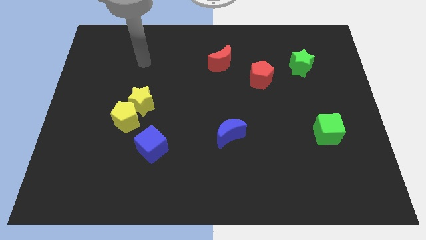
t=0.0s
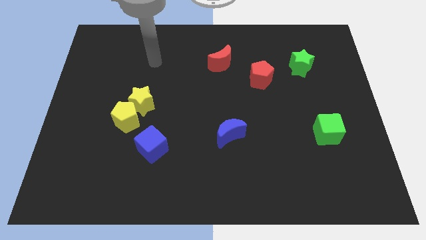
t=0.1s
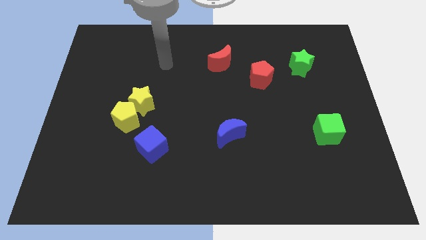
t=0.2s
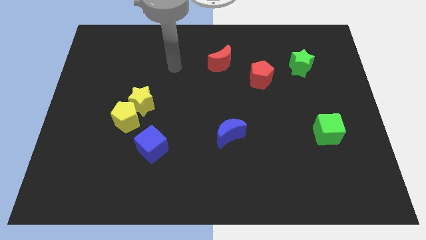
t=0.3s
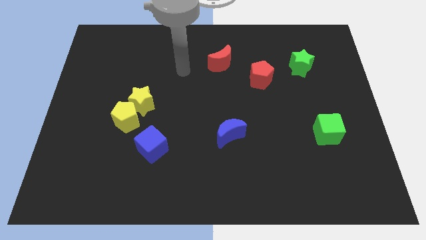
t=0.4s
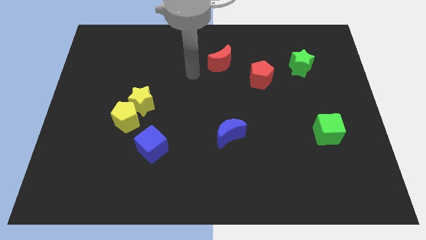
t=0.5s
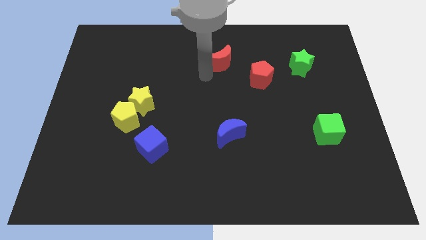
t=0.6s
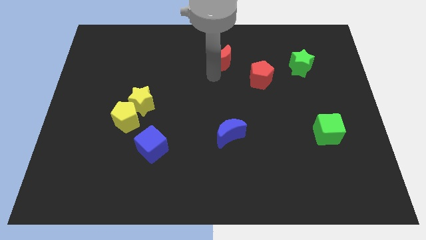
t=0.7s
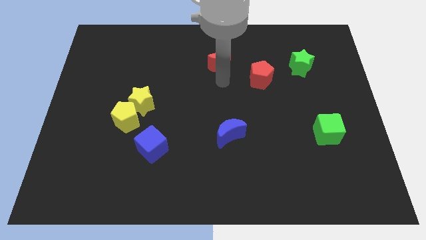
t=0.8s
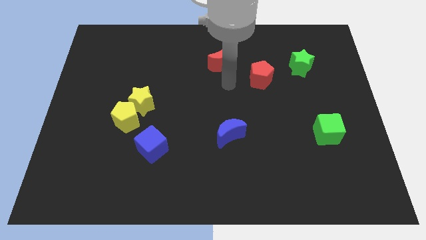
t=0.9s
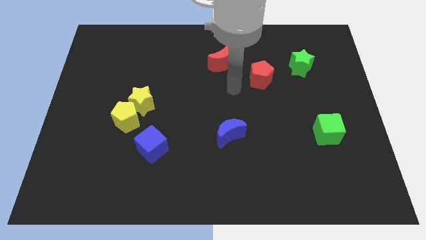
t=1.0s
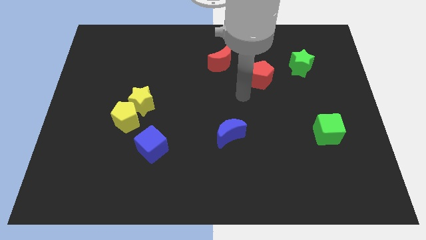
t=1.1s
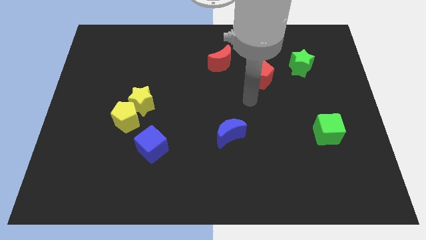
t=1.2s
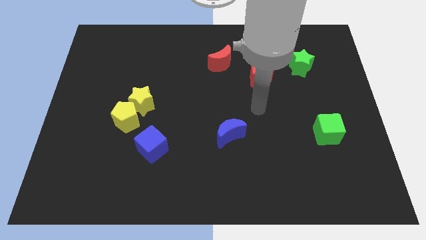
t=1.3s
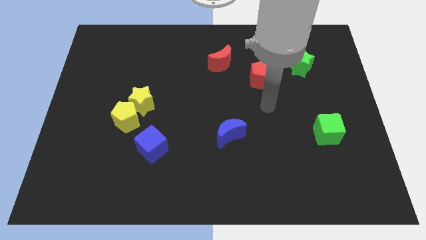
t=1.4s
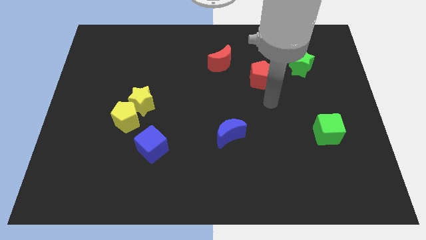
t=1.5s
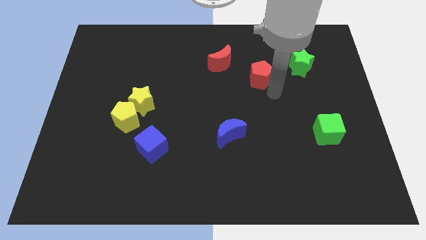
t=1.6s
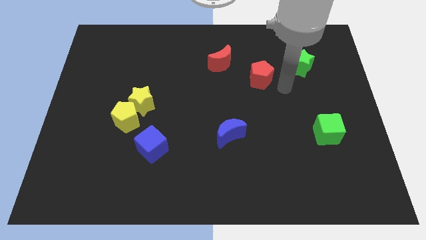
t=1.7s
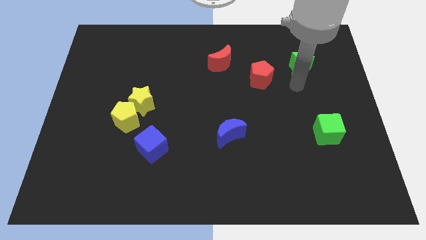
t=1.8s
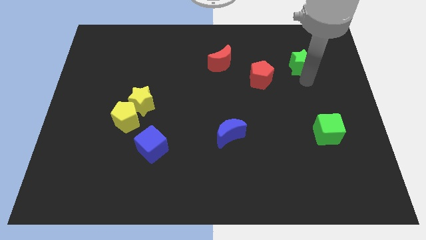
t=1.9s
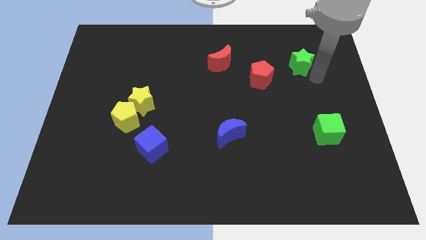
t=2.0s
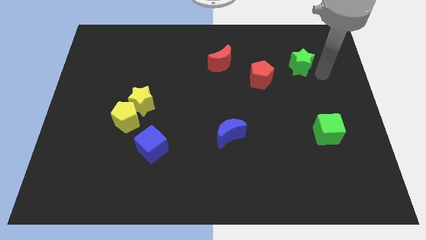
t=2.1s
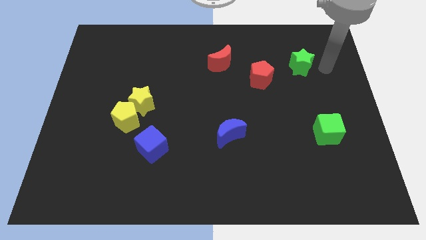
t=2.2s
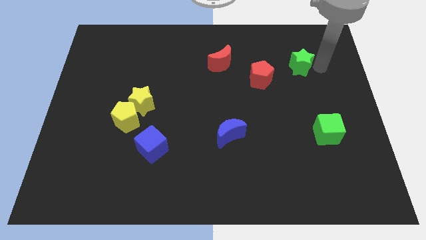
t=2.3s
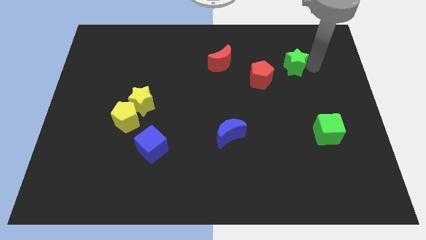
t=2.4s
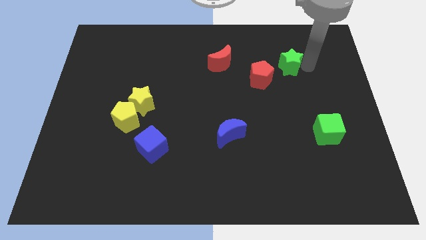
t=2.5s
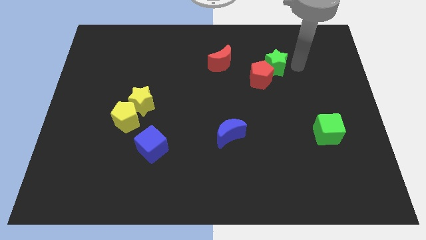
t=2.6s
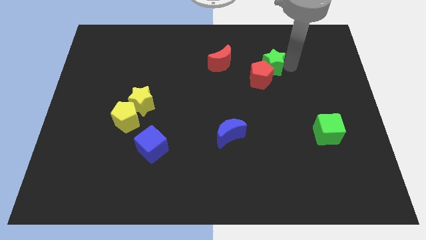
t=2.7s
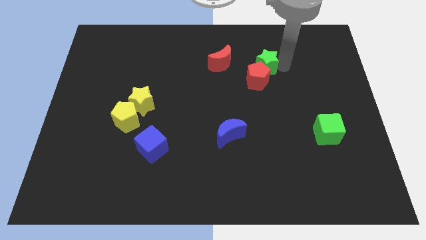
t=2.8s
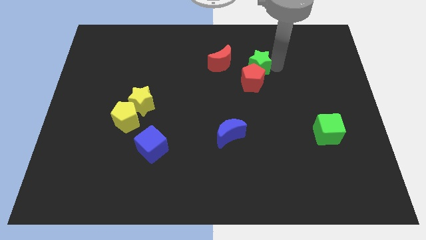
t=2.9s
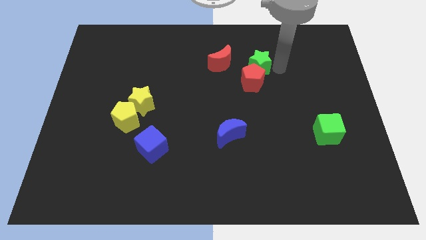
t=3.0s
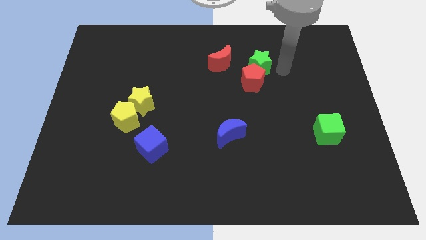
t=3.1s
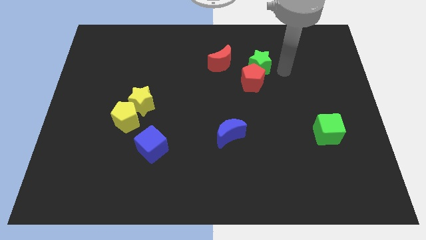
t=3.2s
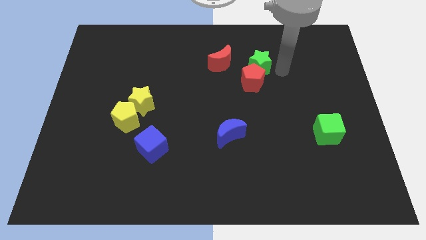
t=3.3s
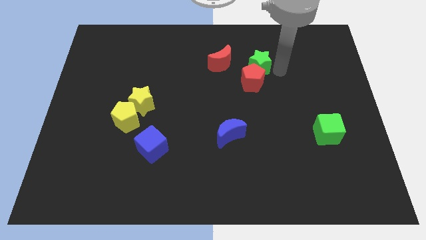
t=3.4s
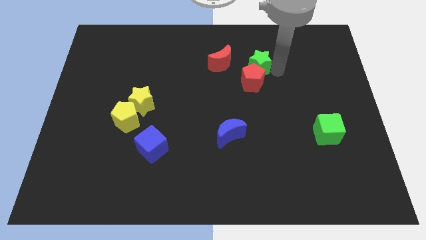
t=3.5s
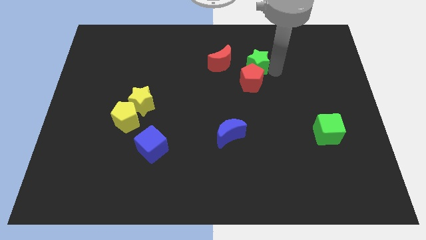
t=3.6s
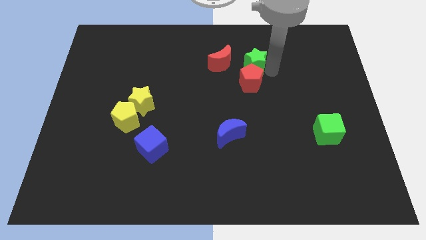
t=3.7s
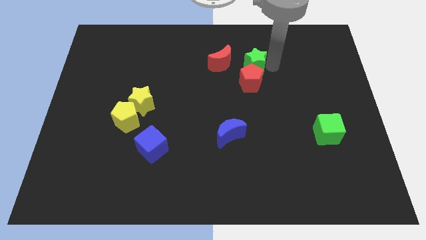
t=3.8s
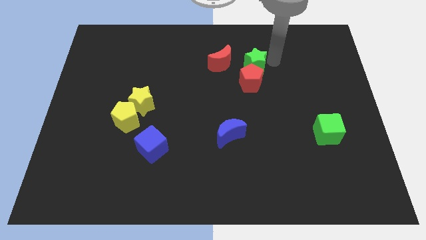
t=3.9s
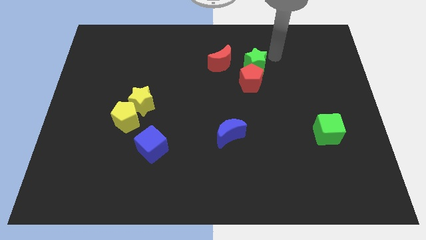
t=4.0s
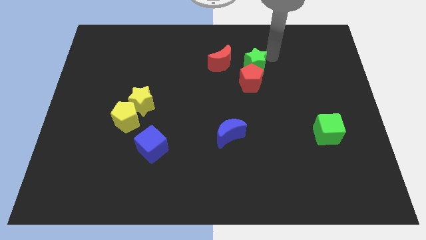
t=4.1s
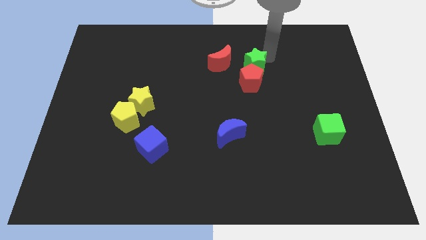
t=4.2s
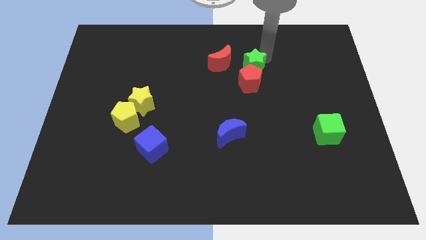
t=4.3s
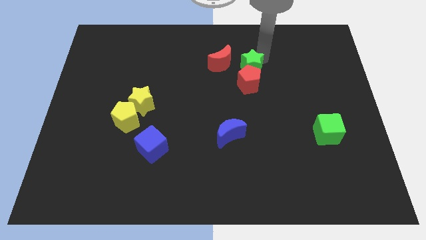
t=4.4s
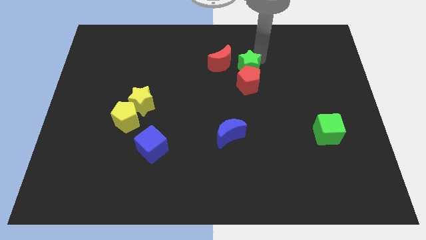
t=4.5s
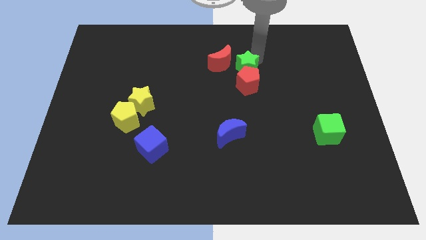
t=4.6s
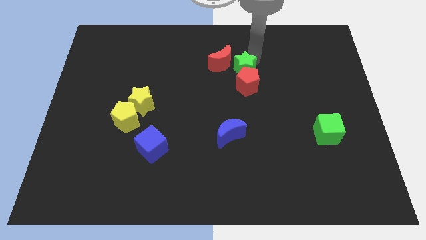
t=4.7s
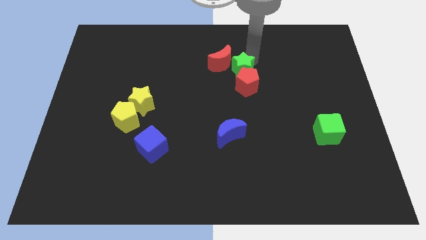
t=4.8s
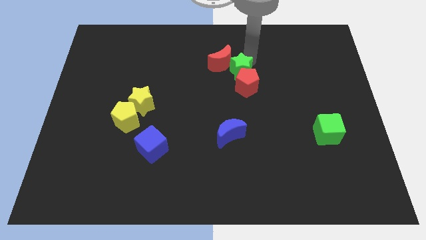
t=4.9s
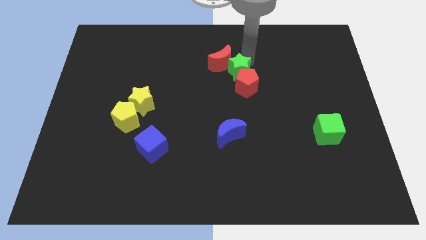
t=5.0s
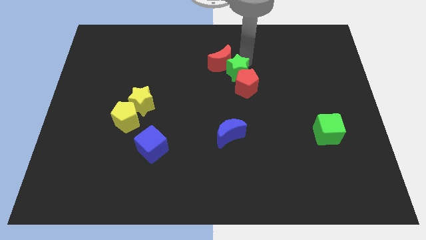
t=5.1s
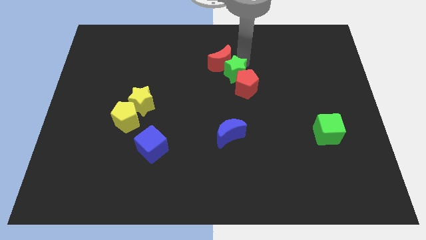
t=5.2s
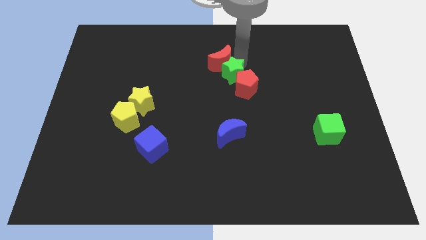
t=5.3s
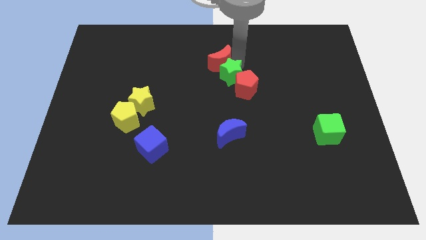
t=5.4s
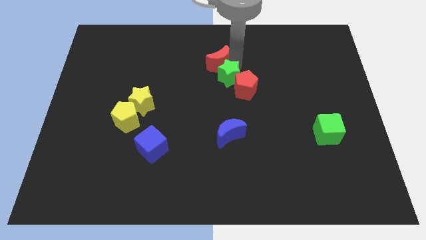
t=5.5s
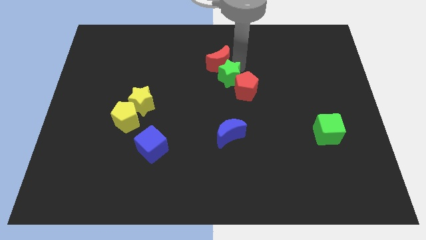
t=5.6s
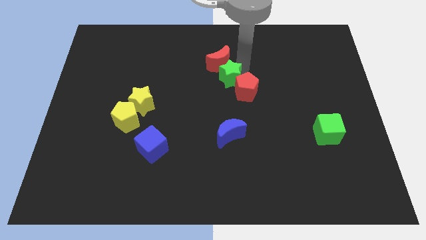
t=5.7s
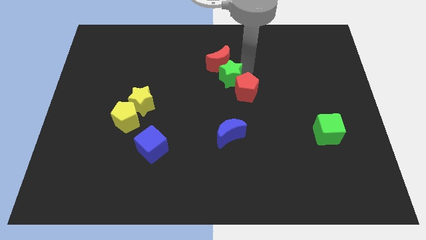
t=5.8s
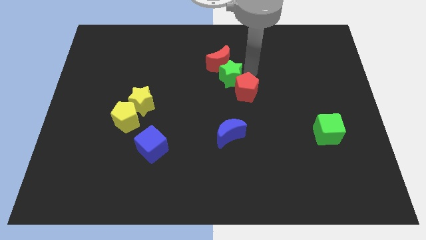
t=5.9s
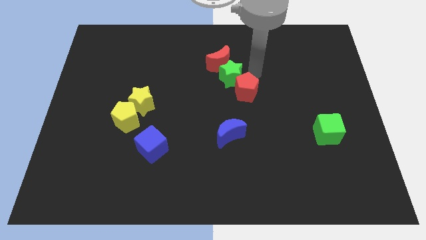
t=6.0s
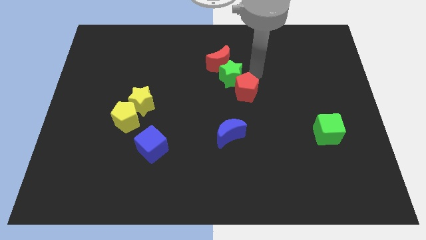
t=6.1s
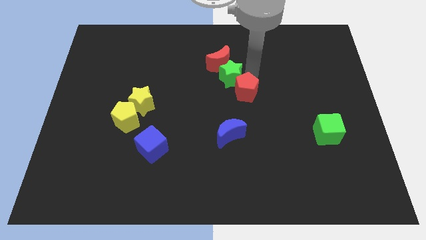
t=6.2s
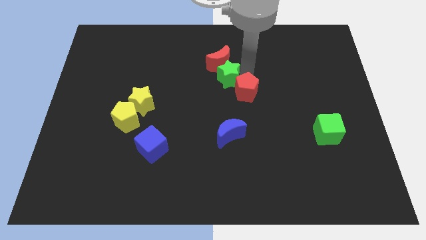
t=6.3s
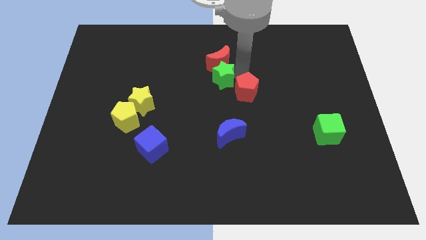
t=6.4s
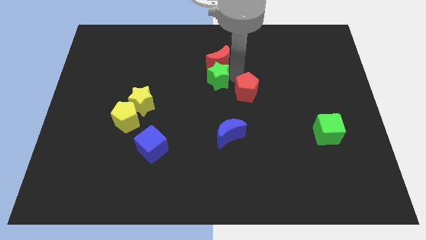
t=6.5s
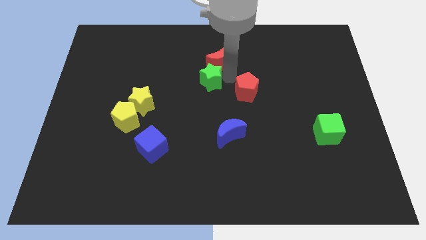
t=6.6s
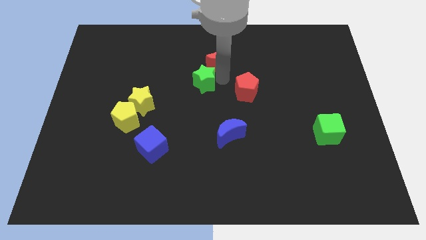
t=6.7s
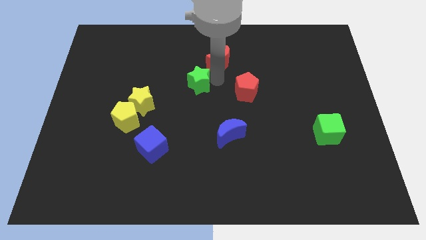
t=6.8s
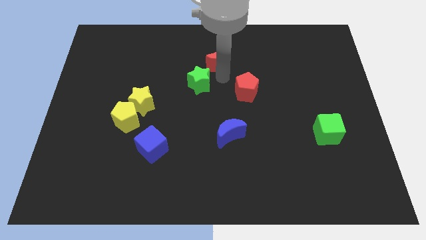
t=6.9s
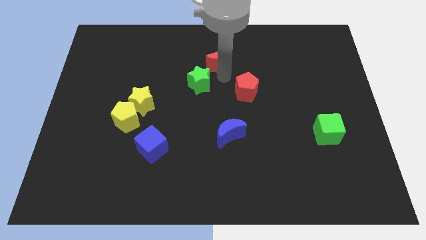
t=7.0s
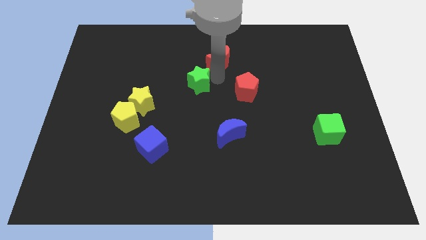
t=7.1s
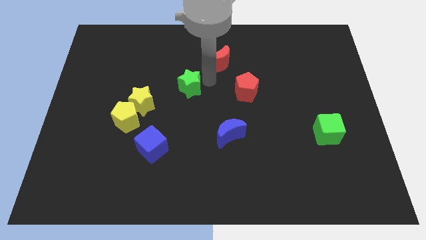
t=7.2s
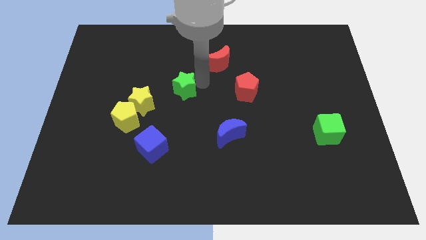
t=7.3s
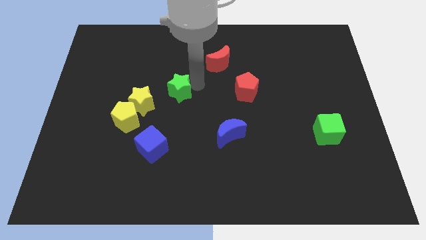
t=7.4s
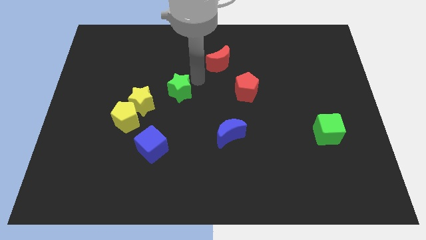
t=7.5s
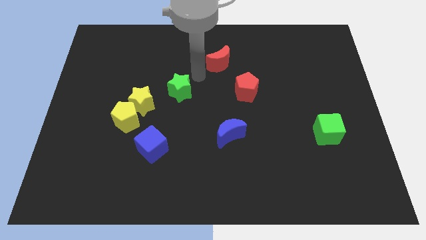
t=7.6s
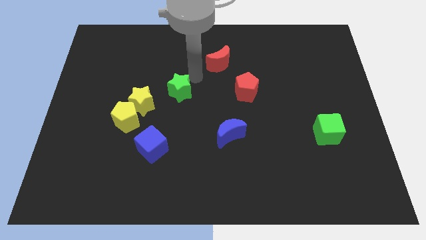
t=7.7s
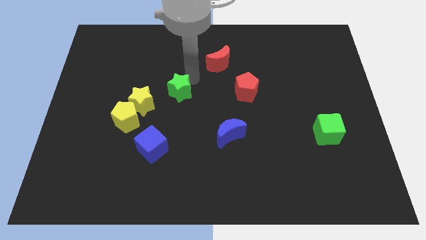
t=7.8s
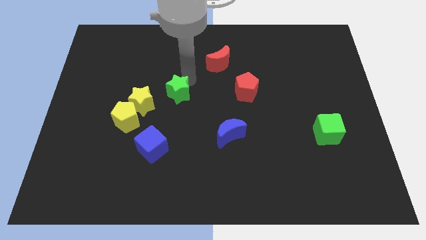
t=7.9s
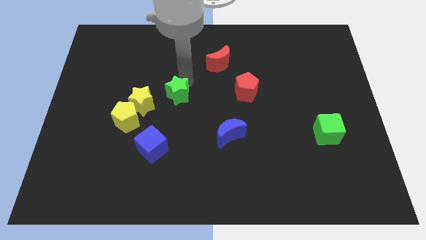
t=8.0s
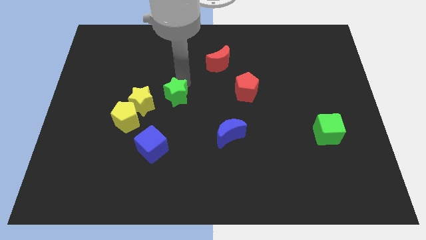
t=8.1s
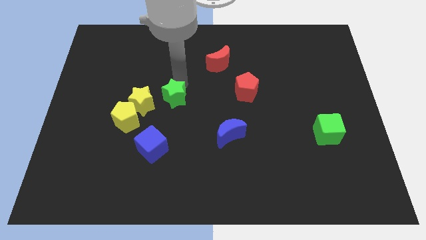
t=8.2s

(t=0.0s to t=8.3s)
move the green star above the blue cube
